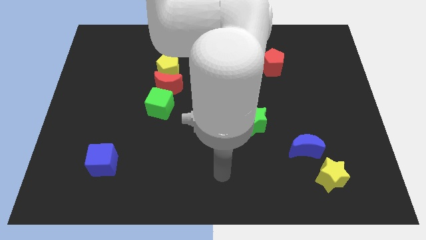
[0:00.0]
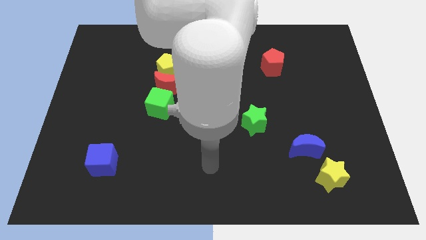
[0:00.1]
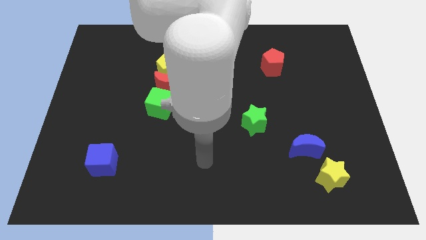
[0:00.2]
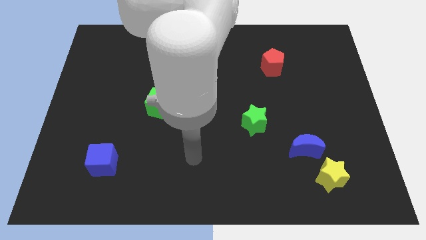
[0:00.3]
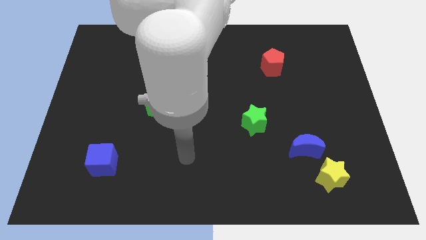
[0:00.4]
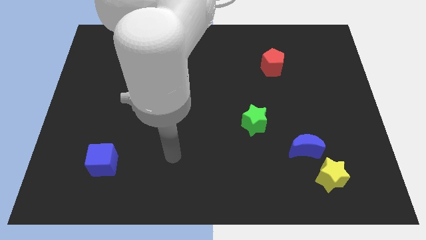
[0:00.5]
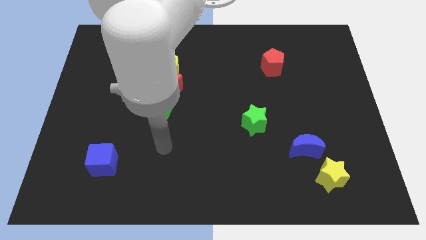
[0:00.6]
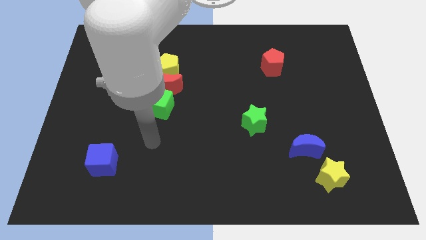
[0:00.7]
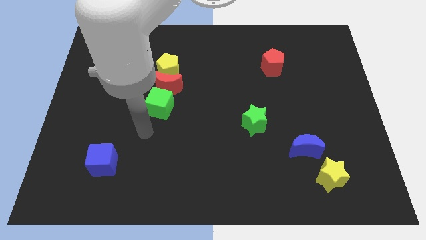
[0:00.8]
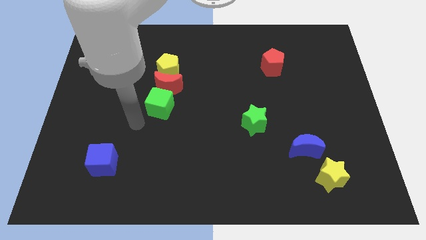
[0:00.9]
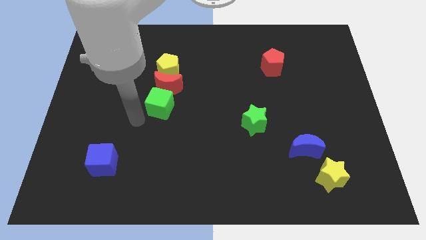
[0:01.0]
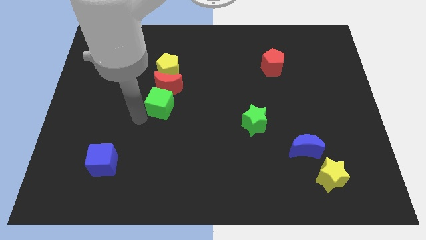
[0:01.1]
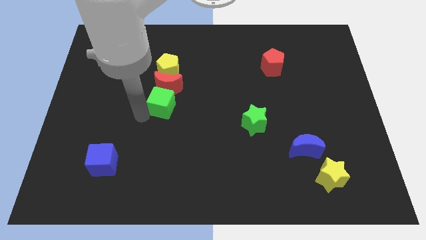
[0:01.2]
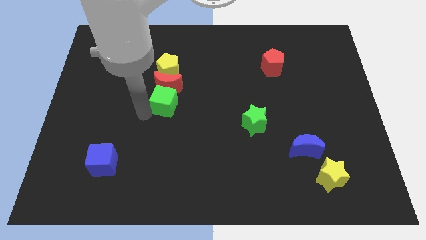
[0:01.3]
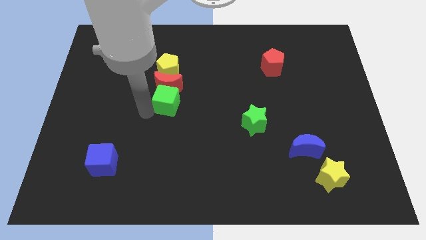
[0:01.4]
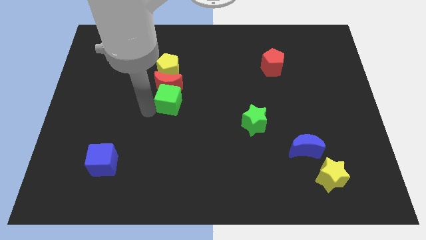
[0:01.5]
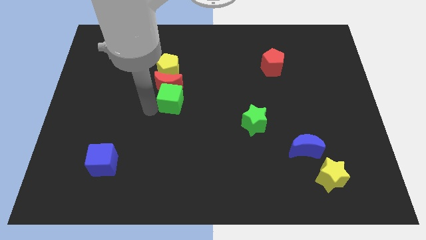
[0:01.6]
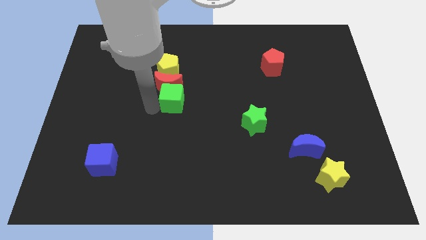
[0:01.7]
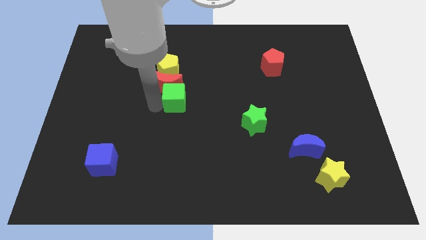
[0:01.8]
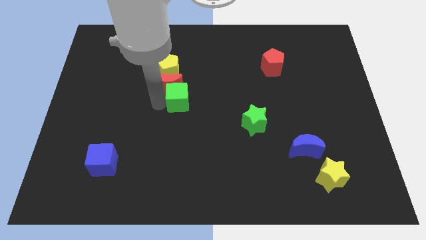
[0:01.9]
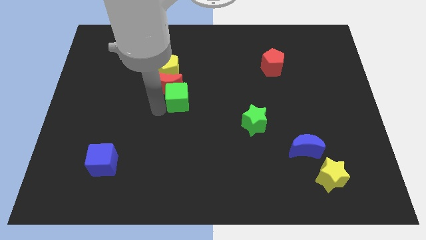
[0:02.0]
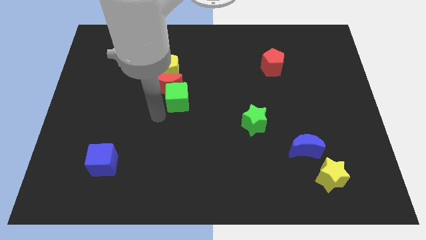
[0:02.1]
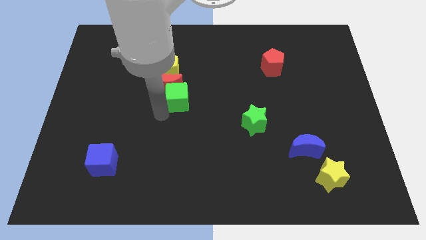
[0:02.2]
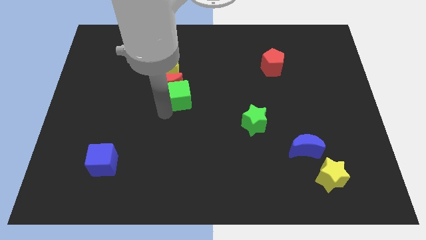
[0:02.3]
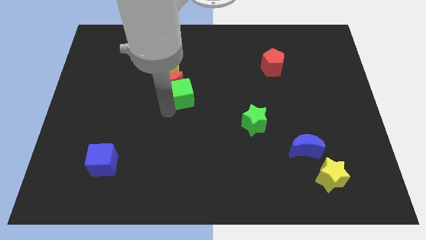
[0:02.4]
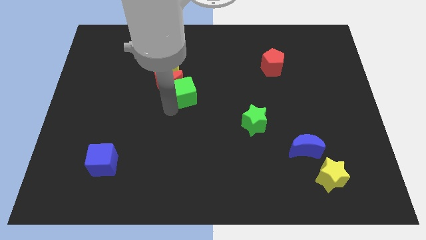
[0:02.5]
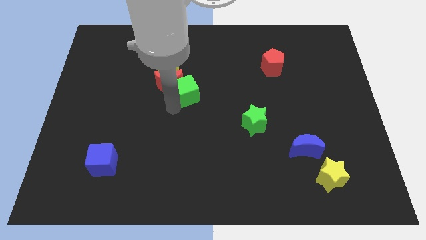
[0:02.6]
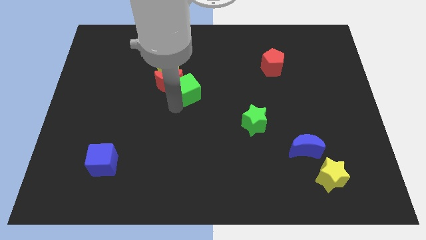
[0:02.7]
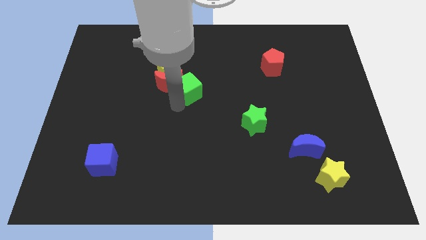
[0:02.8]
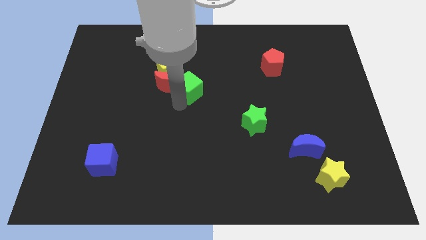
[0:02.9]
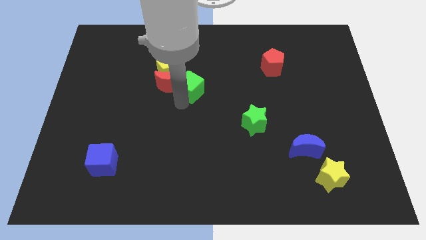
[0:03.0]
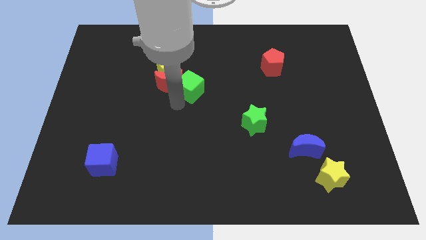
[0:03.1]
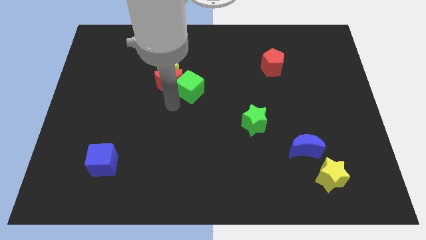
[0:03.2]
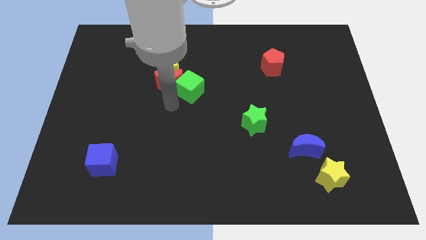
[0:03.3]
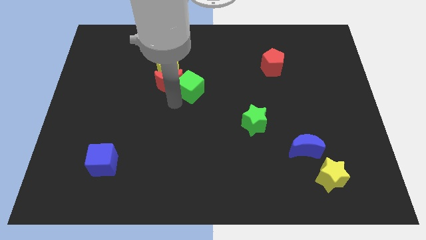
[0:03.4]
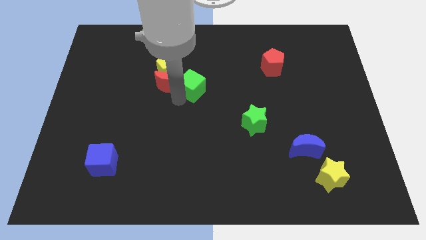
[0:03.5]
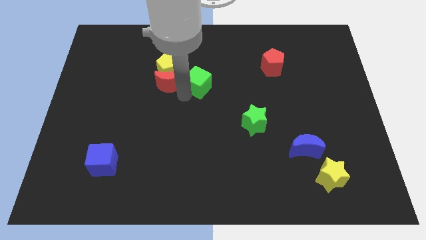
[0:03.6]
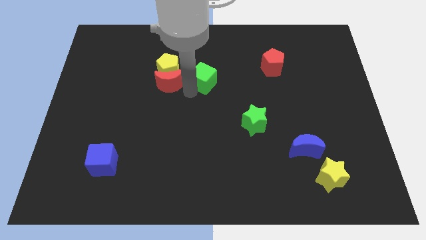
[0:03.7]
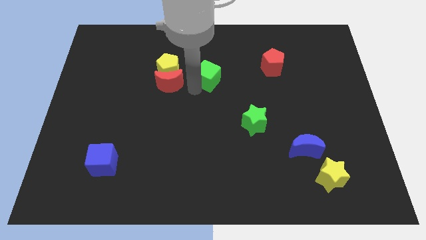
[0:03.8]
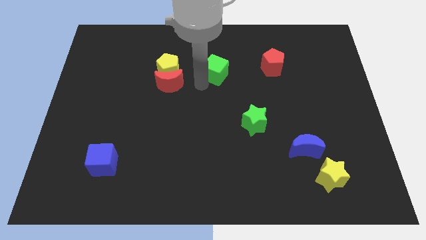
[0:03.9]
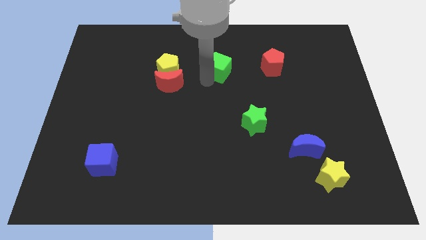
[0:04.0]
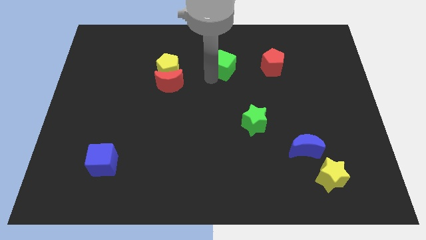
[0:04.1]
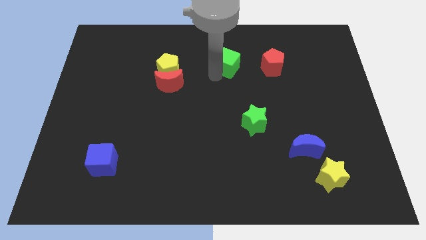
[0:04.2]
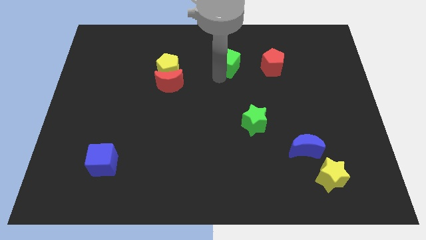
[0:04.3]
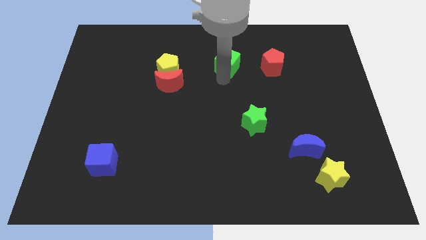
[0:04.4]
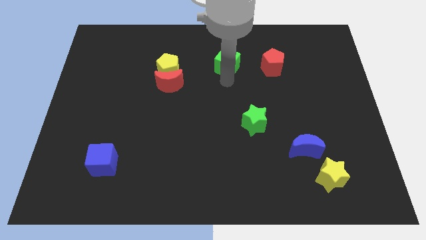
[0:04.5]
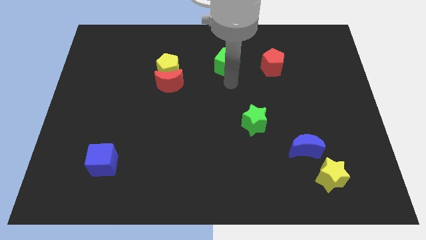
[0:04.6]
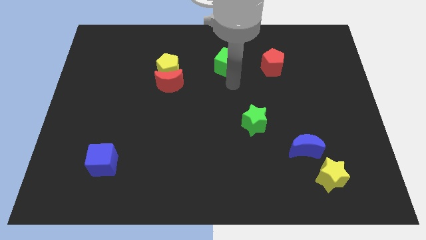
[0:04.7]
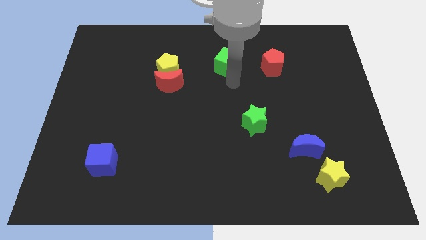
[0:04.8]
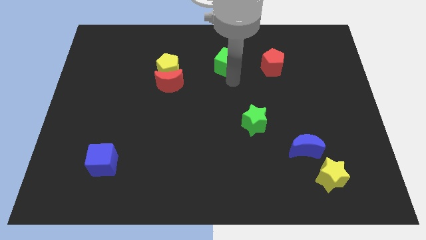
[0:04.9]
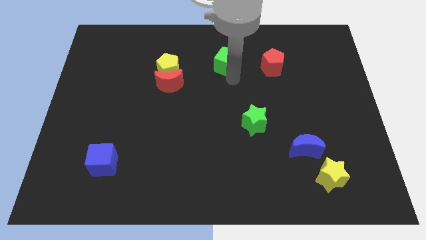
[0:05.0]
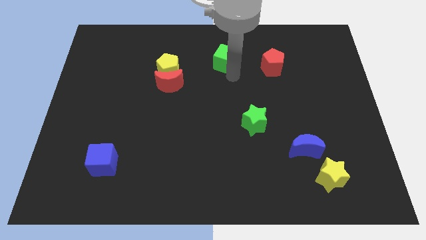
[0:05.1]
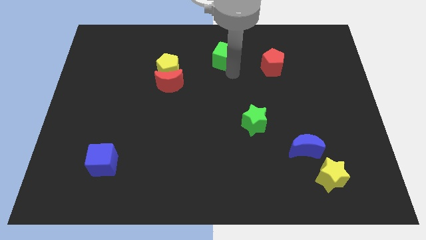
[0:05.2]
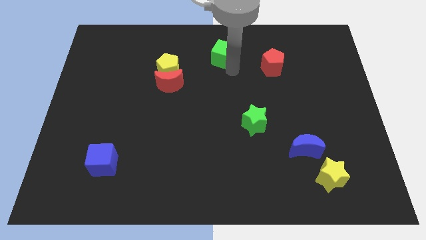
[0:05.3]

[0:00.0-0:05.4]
push the green cube to the top side

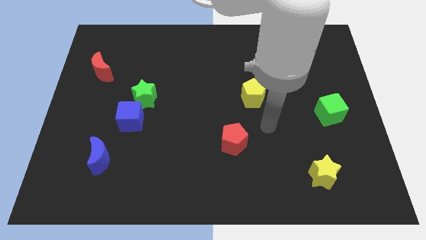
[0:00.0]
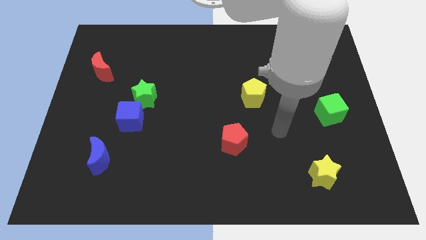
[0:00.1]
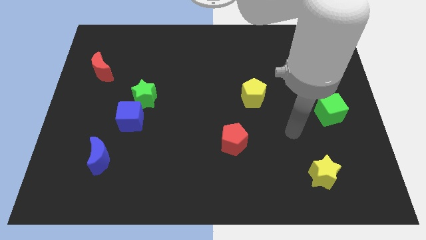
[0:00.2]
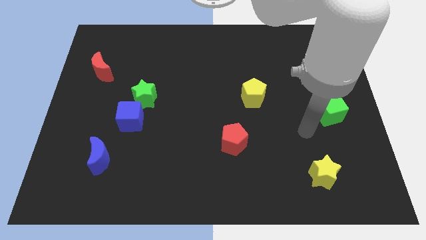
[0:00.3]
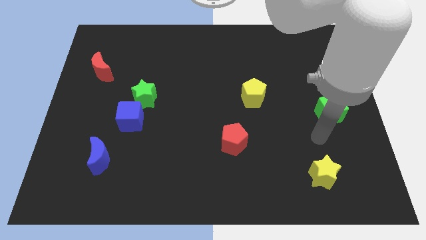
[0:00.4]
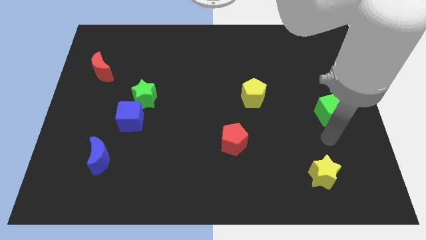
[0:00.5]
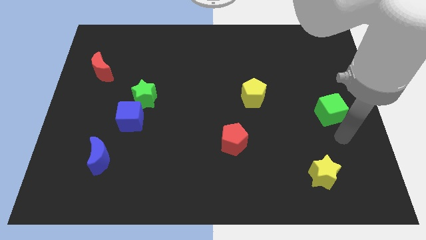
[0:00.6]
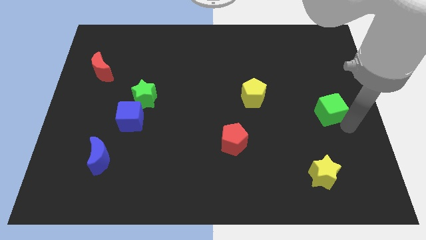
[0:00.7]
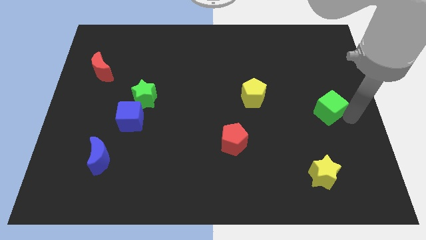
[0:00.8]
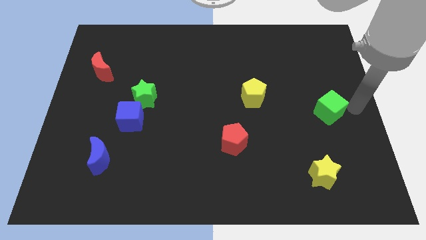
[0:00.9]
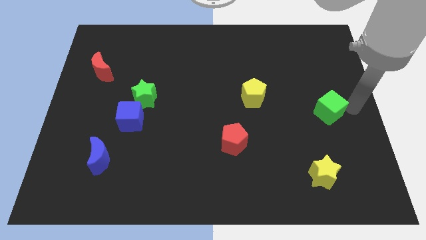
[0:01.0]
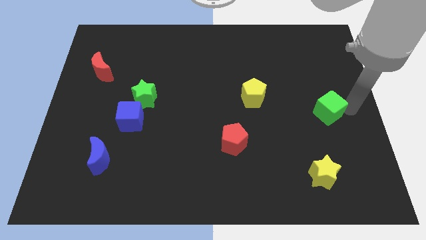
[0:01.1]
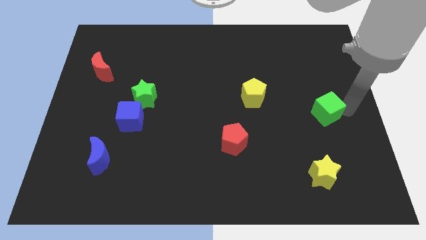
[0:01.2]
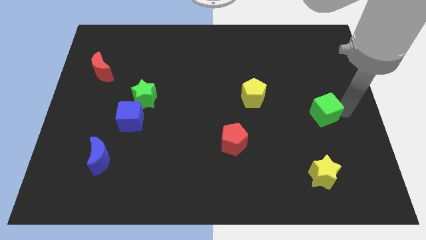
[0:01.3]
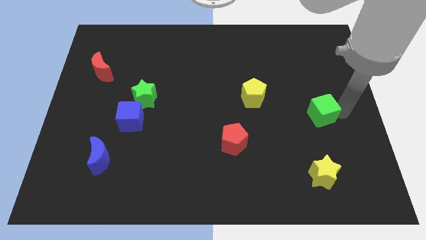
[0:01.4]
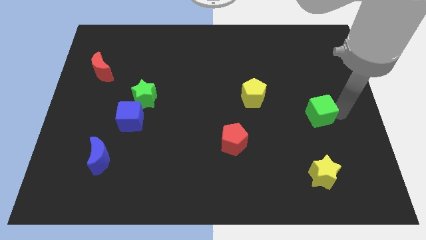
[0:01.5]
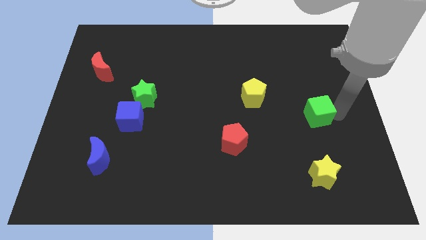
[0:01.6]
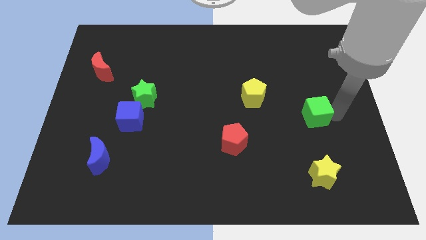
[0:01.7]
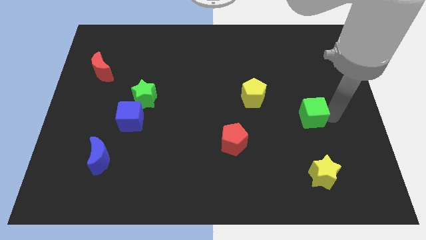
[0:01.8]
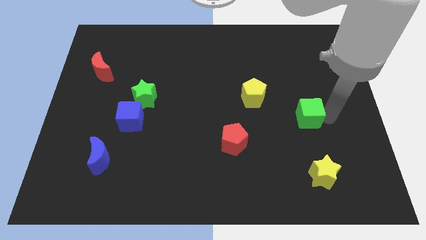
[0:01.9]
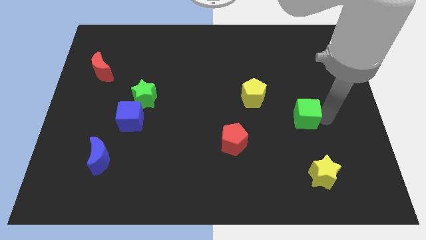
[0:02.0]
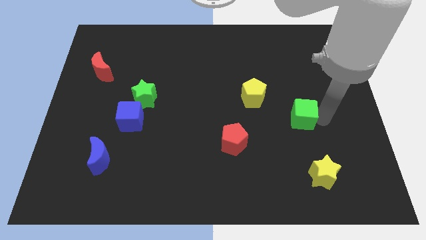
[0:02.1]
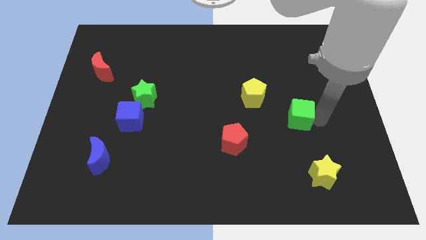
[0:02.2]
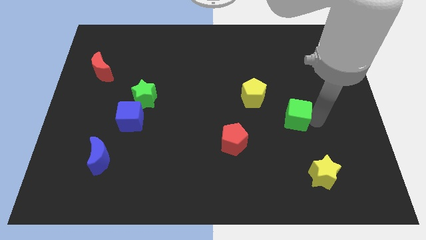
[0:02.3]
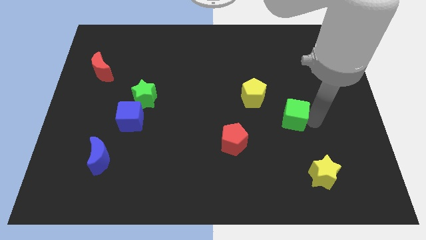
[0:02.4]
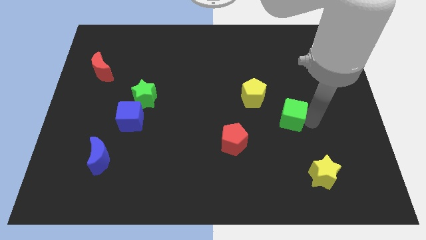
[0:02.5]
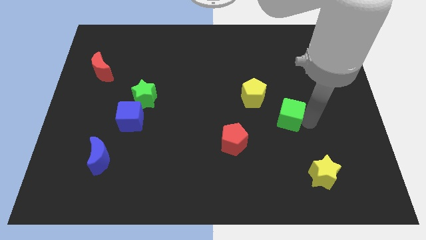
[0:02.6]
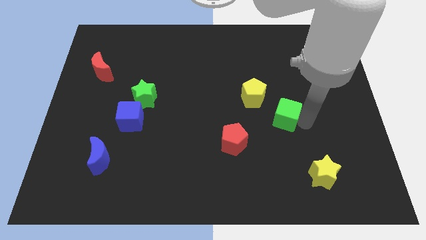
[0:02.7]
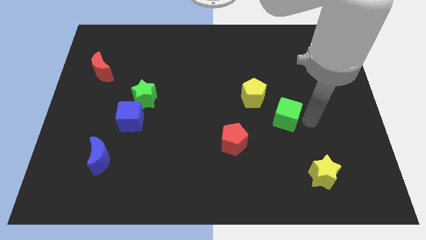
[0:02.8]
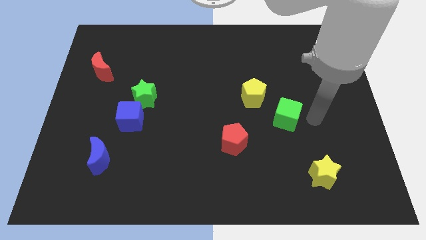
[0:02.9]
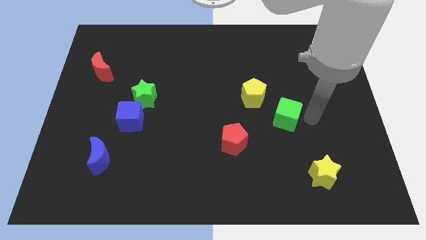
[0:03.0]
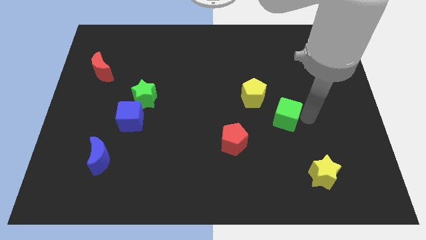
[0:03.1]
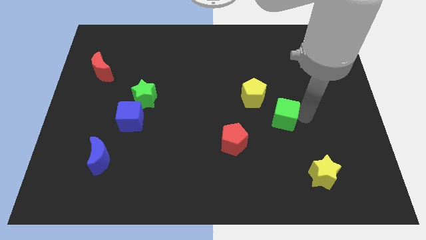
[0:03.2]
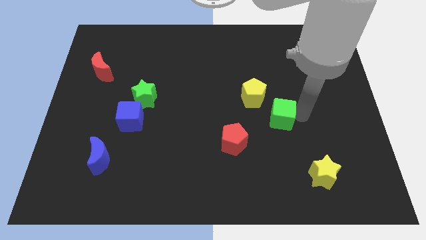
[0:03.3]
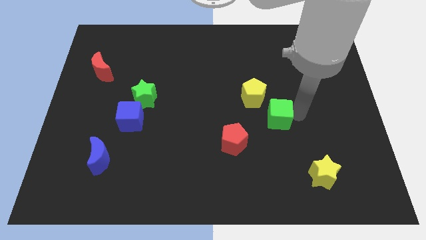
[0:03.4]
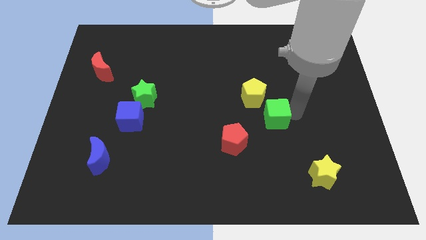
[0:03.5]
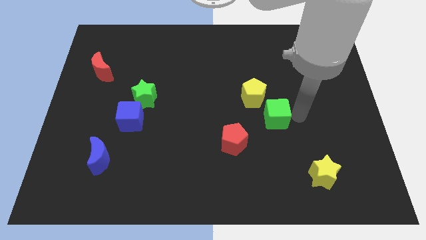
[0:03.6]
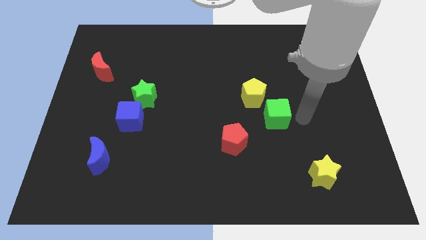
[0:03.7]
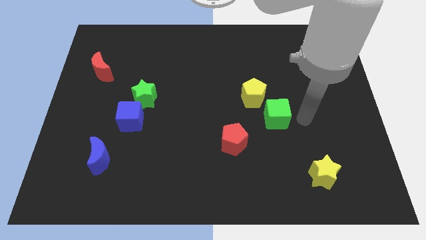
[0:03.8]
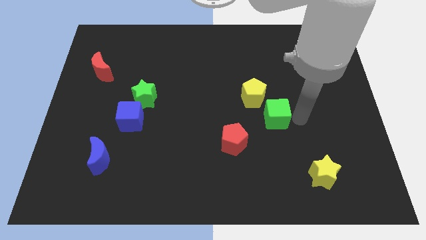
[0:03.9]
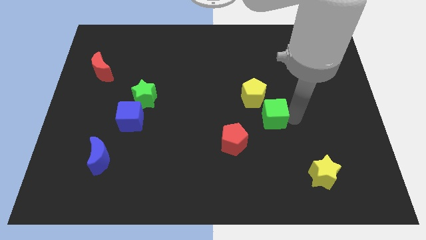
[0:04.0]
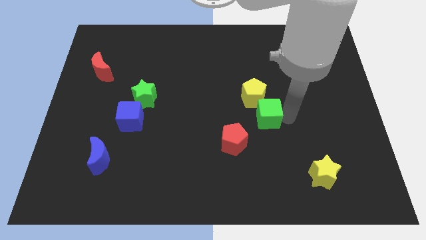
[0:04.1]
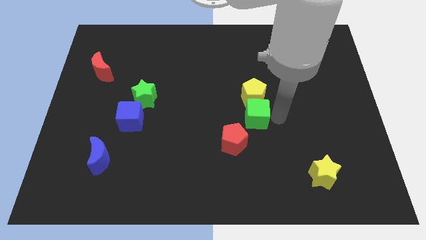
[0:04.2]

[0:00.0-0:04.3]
slide the green cube to the middle
